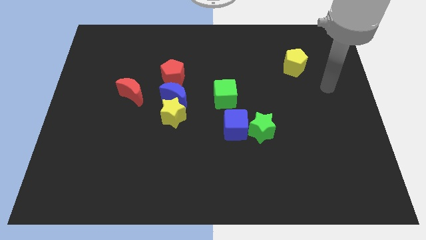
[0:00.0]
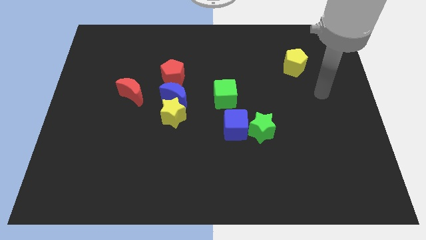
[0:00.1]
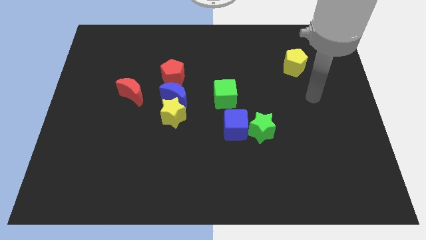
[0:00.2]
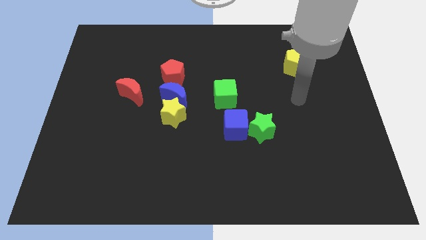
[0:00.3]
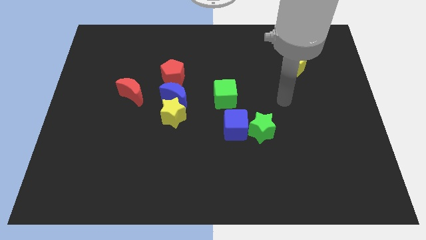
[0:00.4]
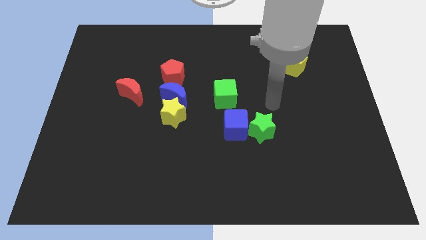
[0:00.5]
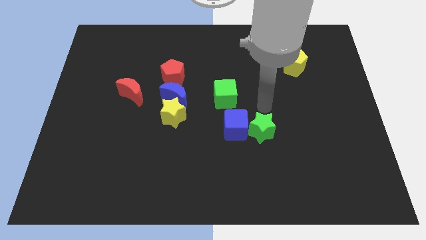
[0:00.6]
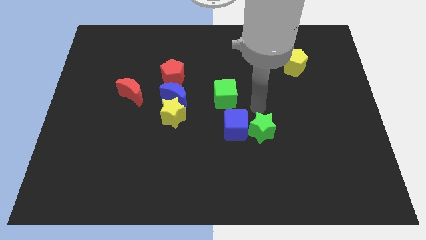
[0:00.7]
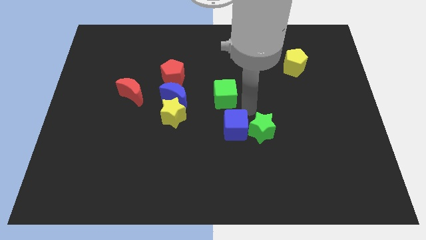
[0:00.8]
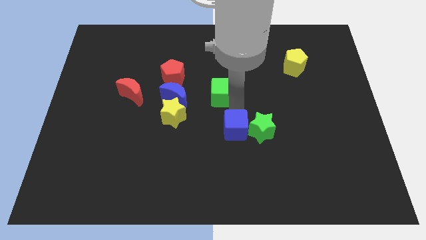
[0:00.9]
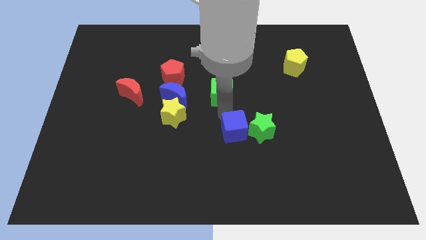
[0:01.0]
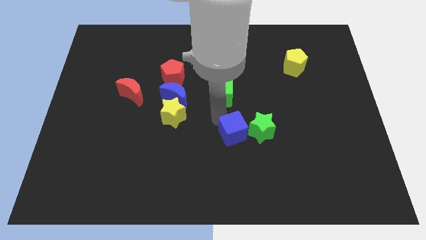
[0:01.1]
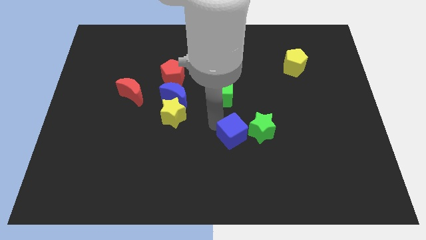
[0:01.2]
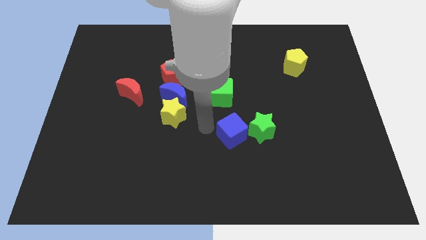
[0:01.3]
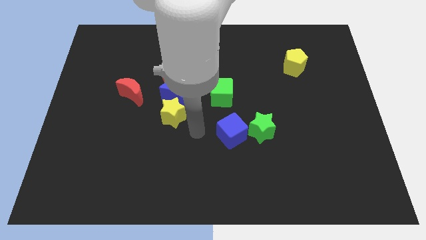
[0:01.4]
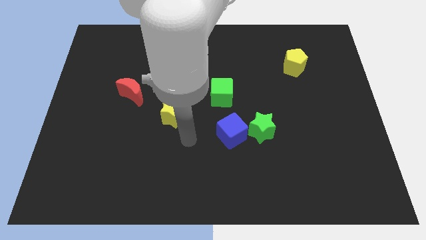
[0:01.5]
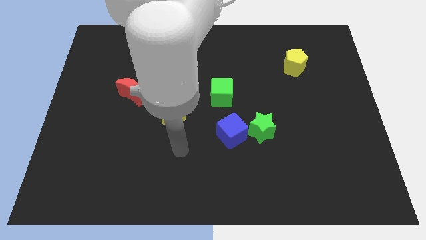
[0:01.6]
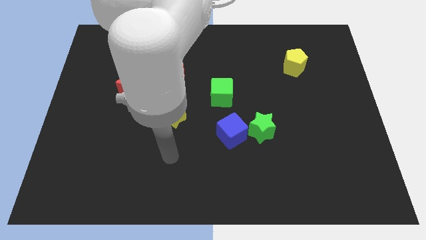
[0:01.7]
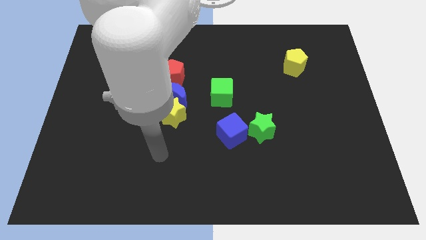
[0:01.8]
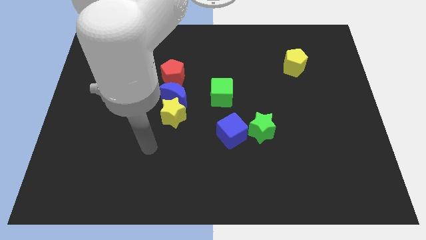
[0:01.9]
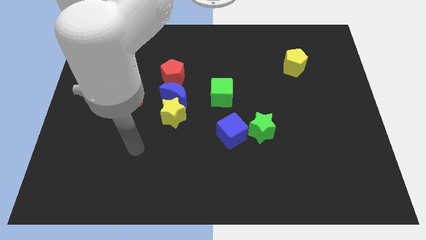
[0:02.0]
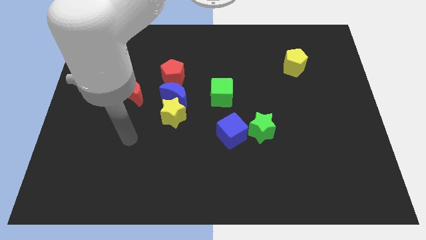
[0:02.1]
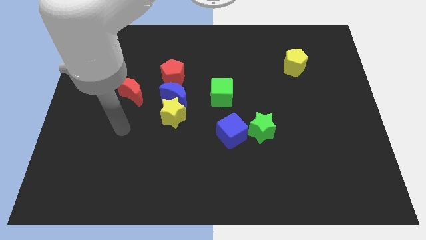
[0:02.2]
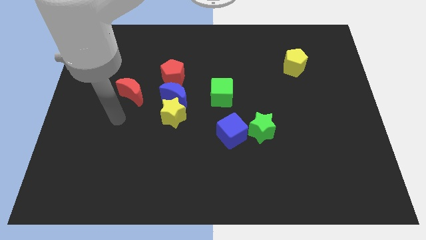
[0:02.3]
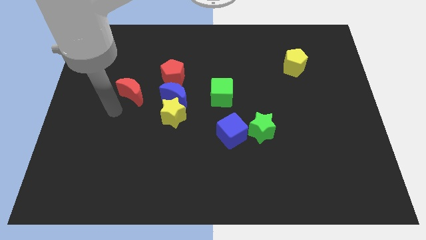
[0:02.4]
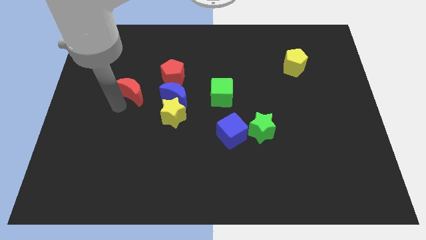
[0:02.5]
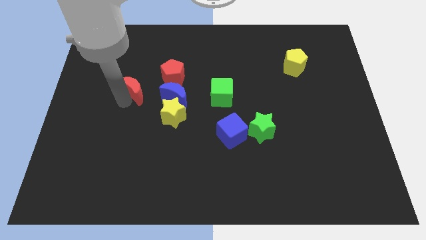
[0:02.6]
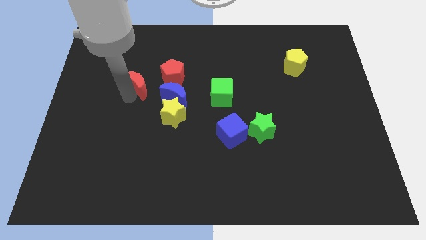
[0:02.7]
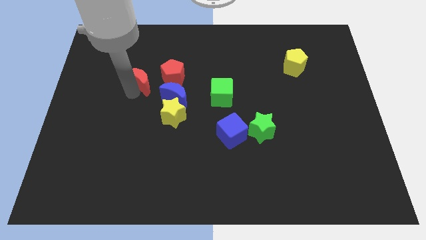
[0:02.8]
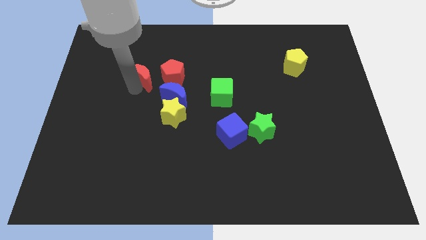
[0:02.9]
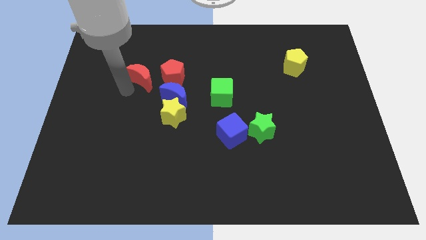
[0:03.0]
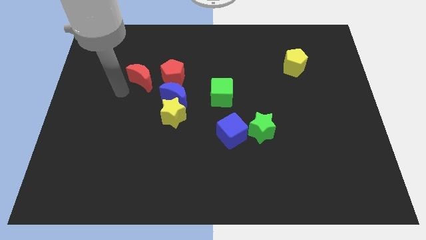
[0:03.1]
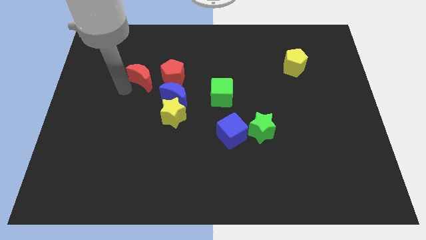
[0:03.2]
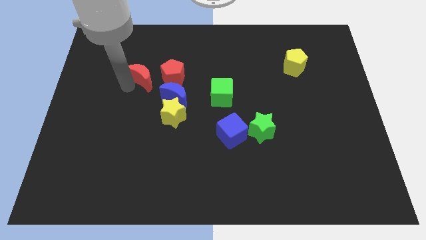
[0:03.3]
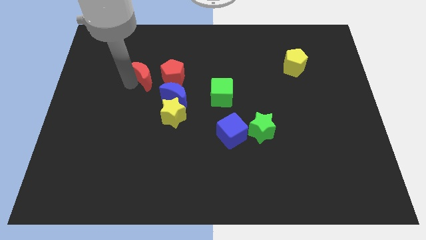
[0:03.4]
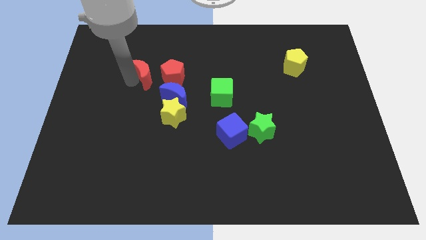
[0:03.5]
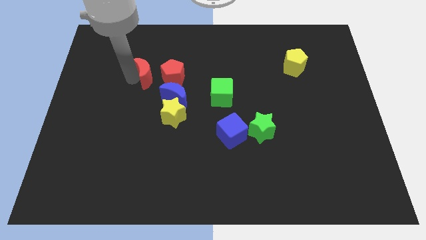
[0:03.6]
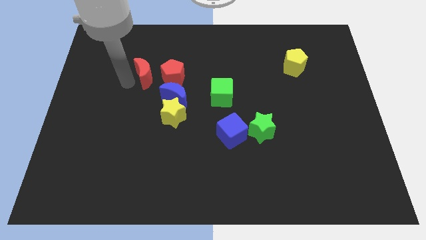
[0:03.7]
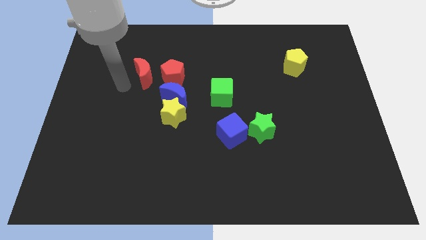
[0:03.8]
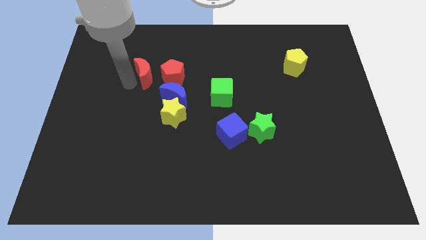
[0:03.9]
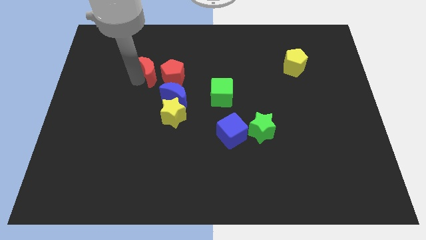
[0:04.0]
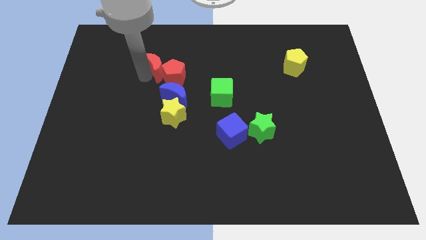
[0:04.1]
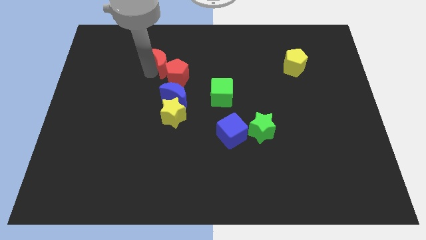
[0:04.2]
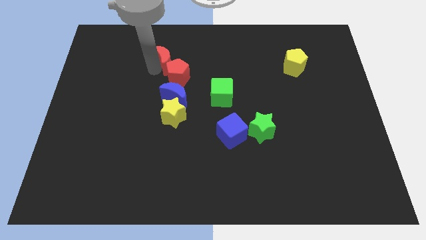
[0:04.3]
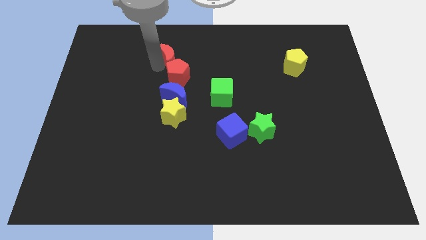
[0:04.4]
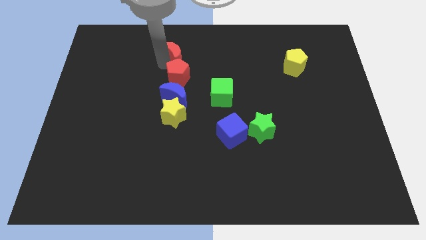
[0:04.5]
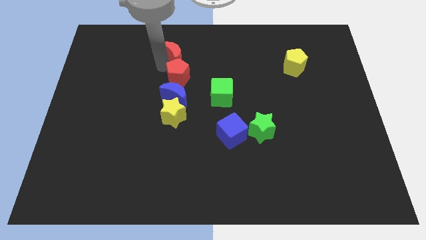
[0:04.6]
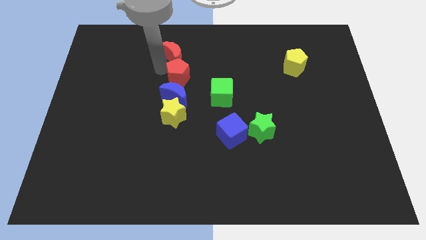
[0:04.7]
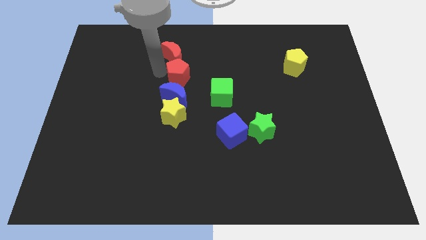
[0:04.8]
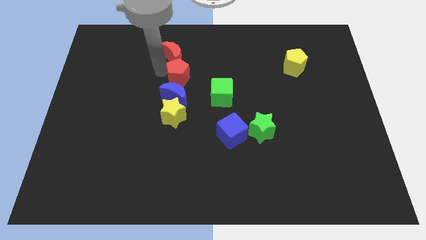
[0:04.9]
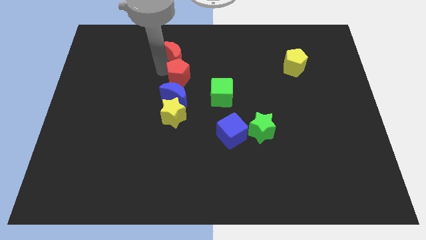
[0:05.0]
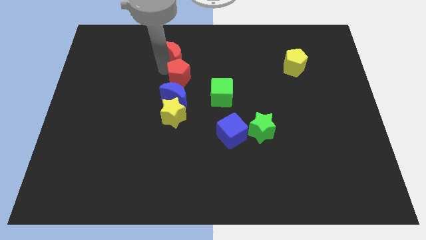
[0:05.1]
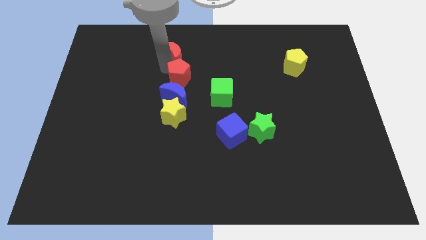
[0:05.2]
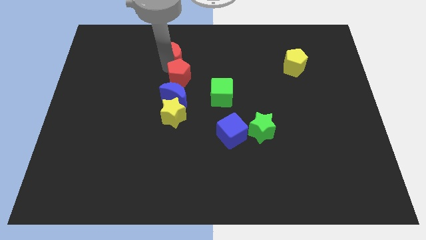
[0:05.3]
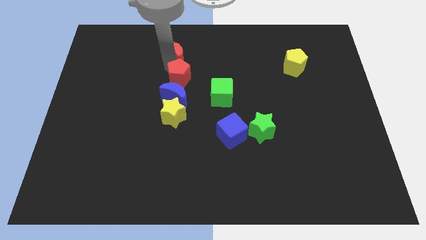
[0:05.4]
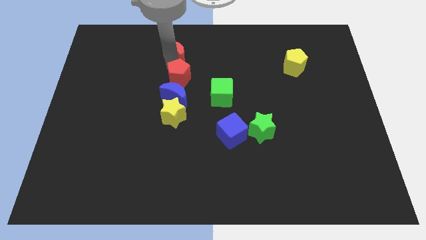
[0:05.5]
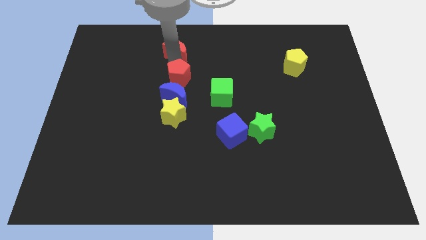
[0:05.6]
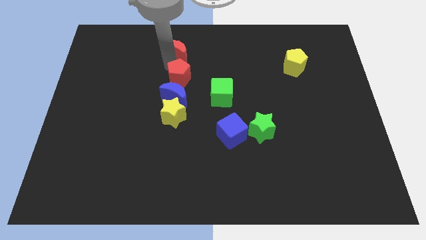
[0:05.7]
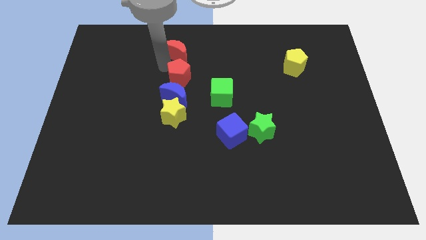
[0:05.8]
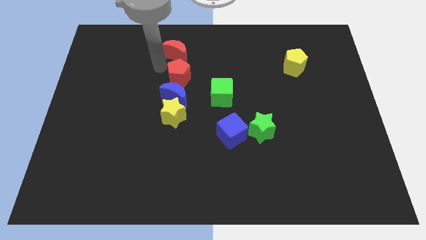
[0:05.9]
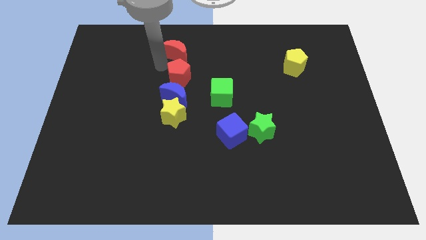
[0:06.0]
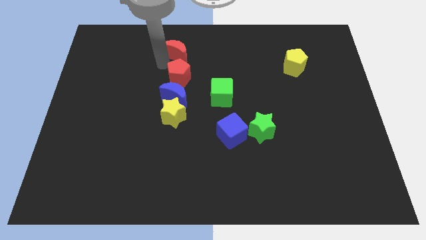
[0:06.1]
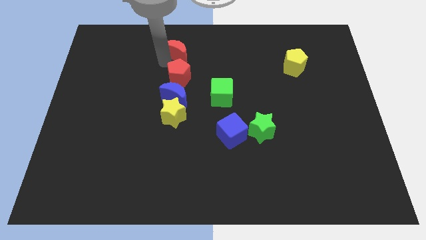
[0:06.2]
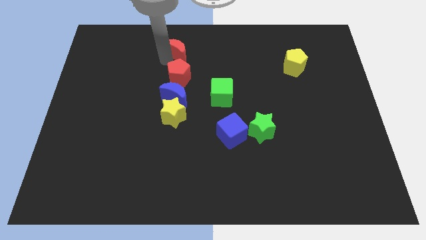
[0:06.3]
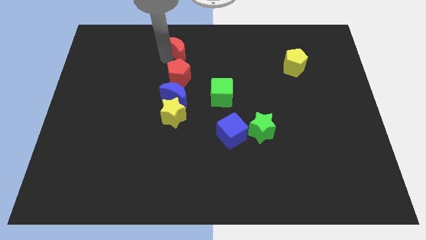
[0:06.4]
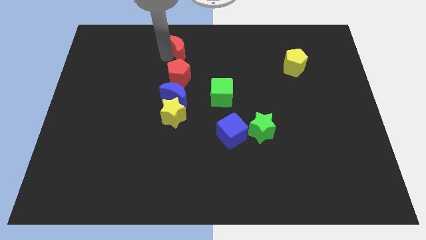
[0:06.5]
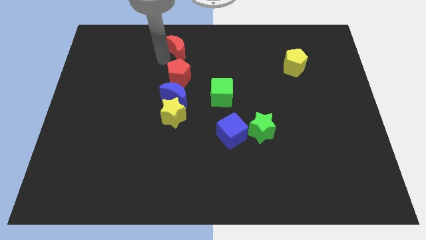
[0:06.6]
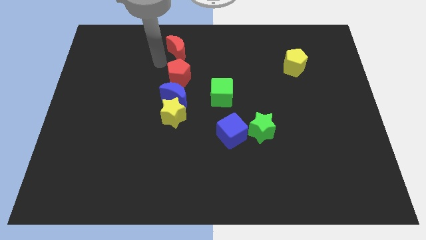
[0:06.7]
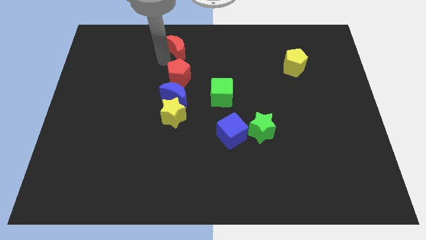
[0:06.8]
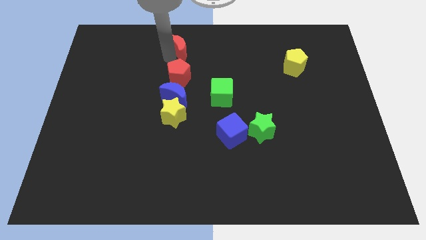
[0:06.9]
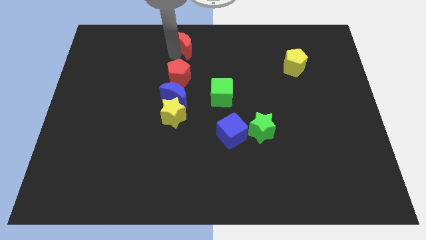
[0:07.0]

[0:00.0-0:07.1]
move the red moon to the top
